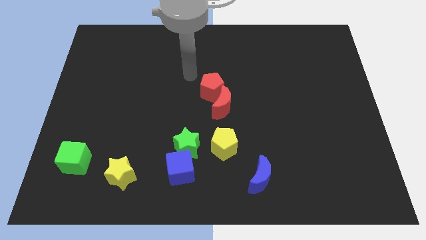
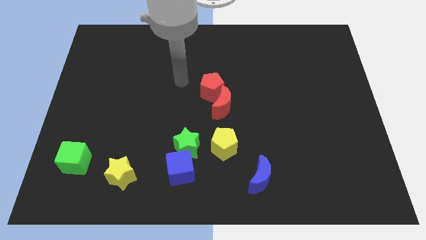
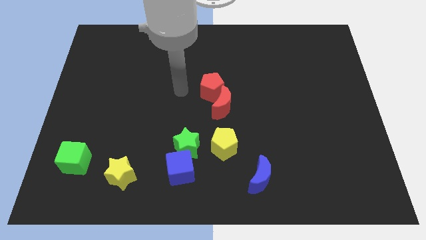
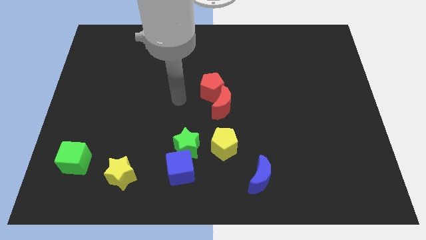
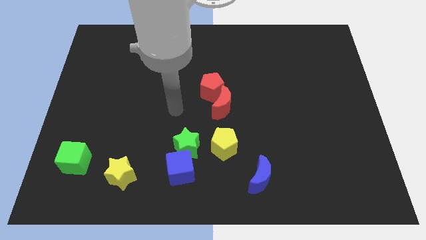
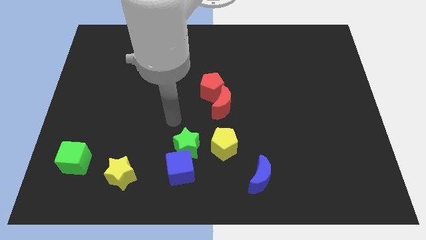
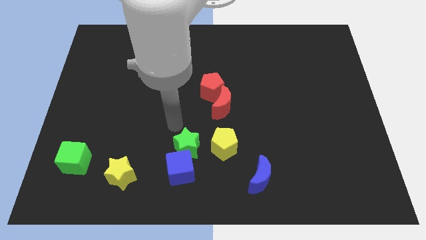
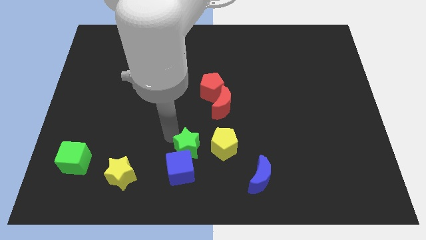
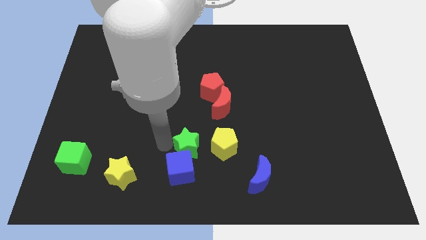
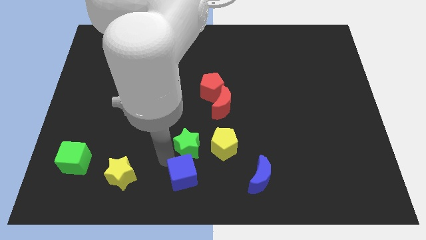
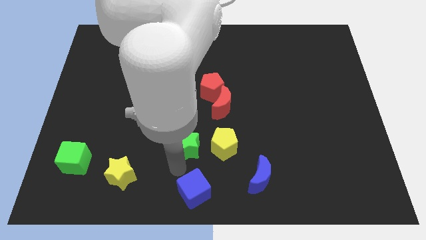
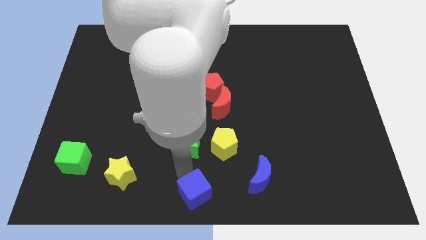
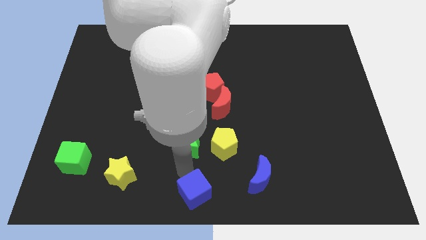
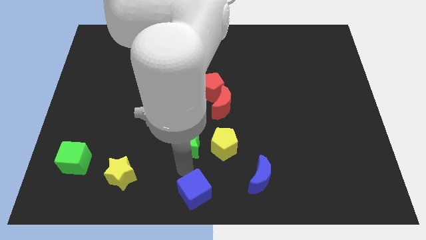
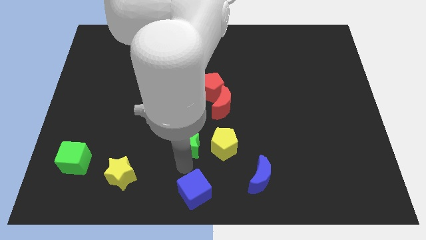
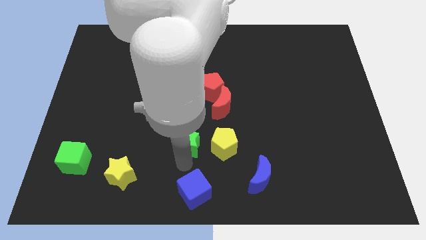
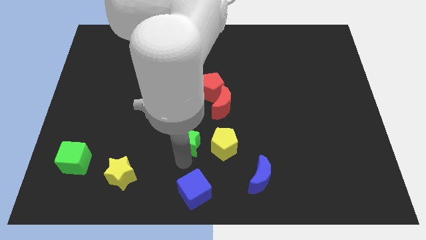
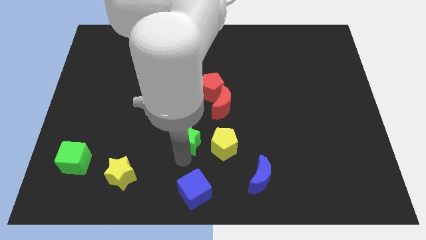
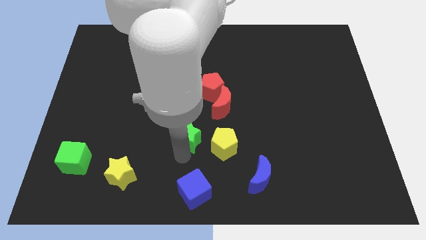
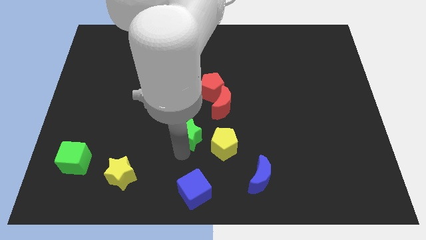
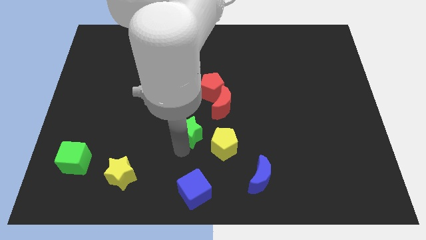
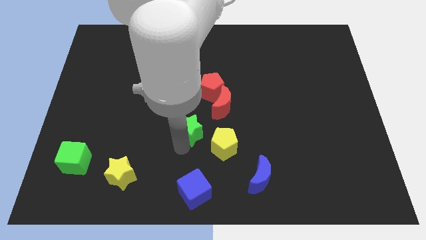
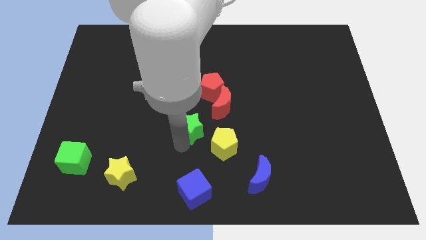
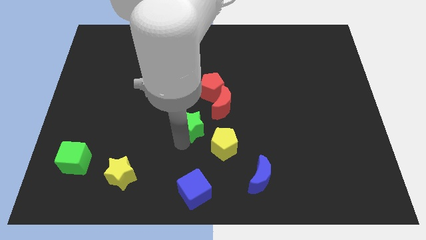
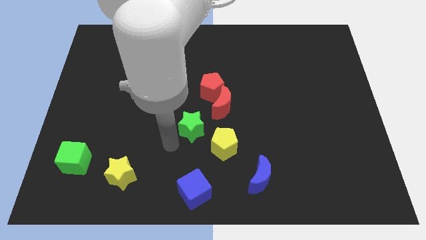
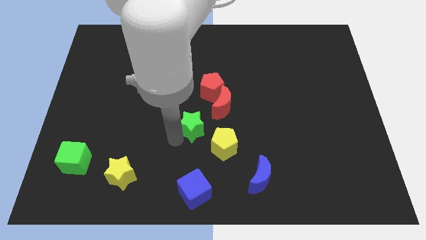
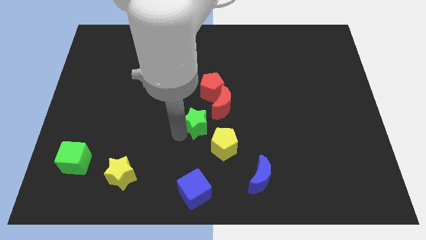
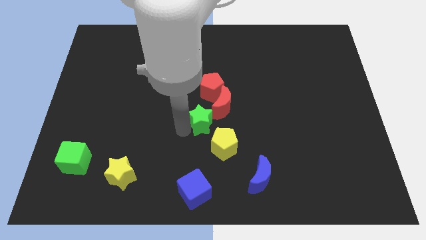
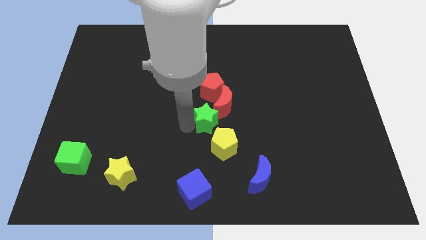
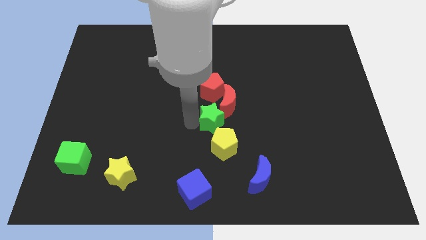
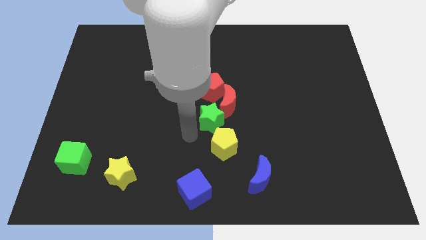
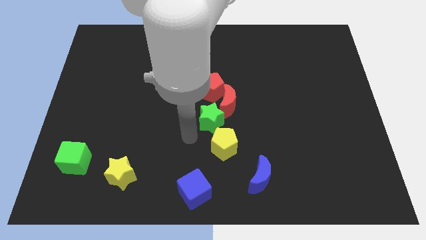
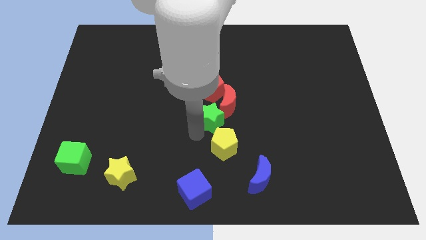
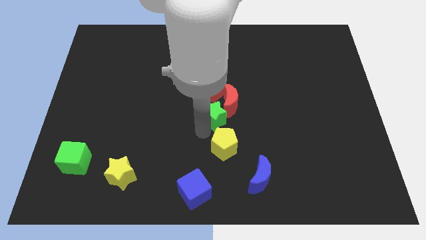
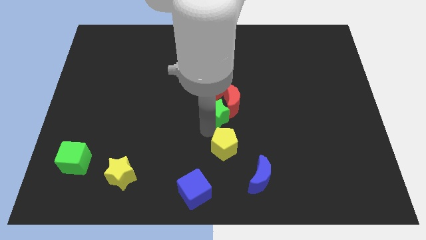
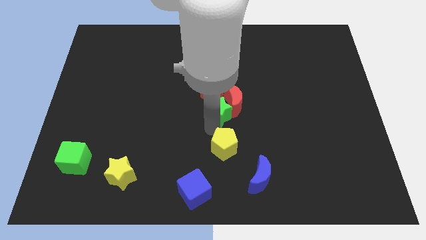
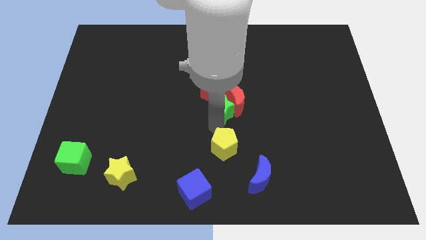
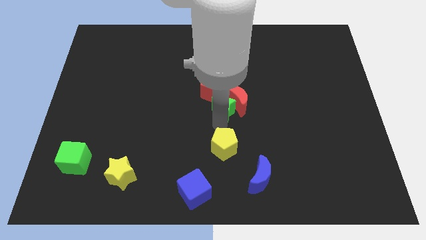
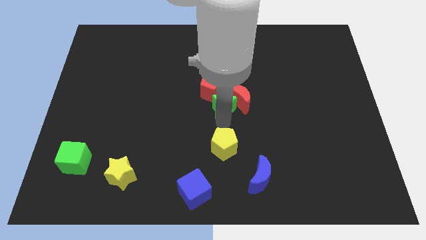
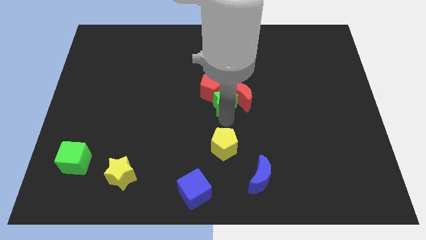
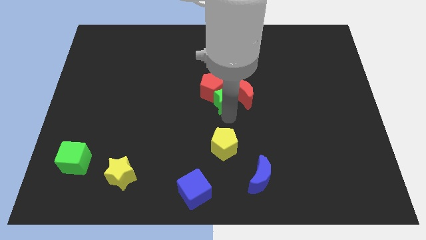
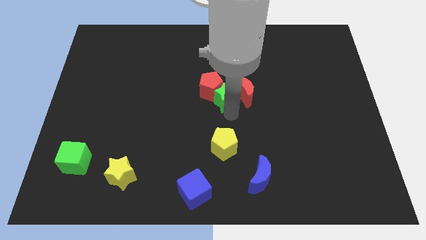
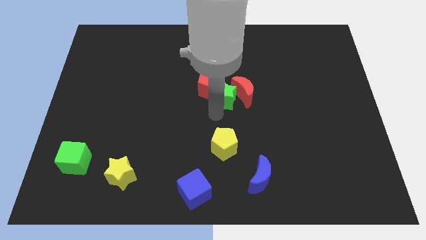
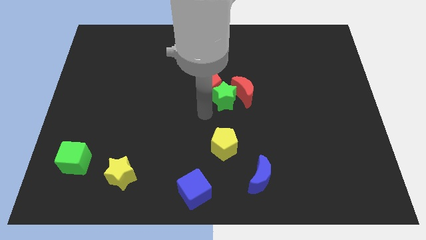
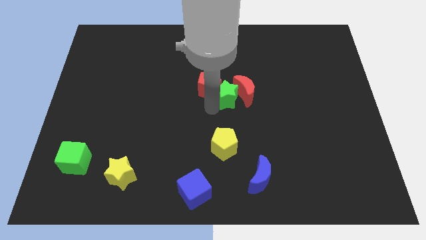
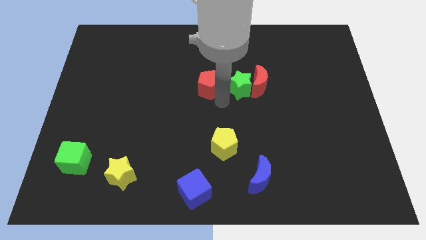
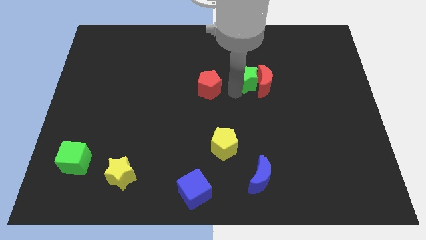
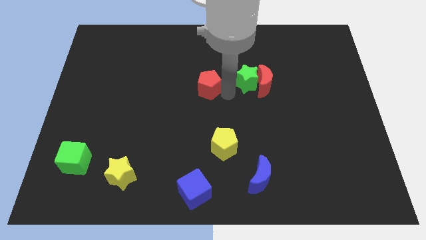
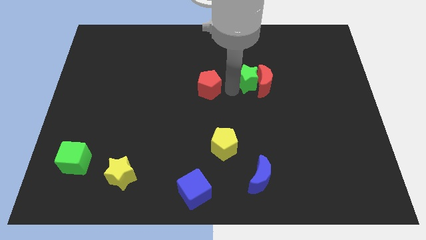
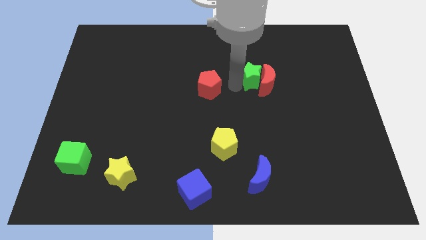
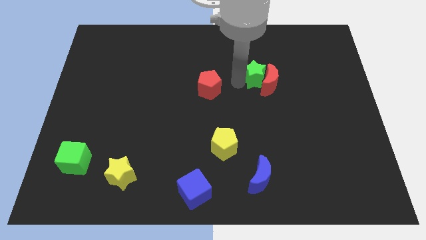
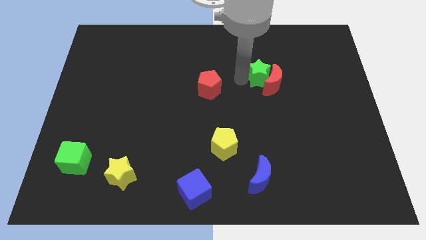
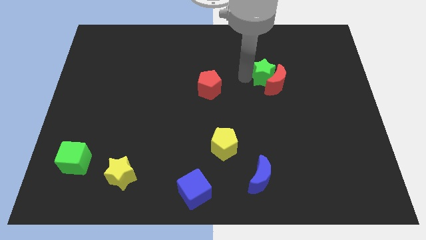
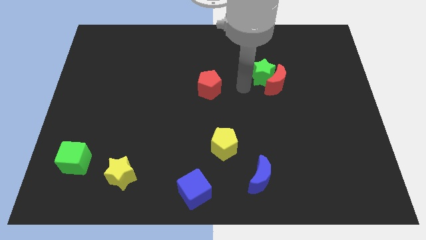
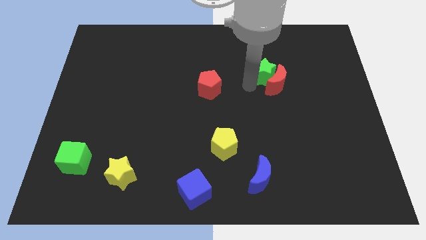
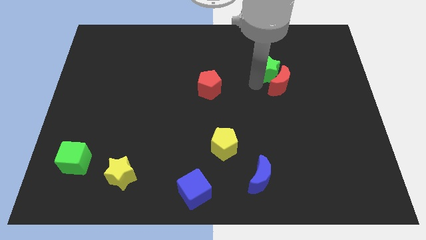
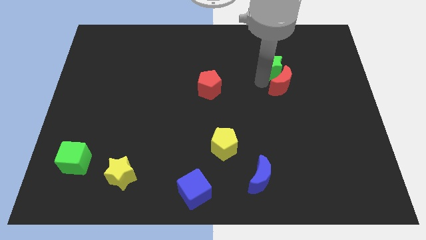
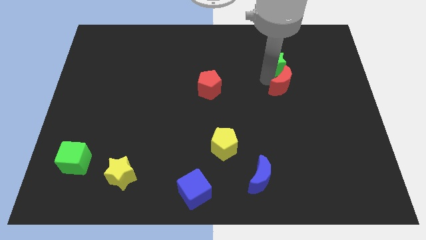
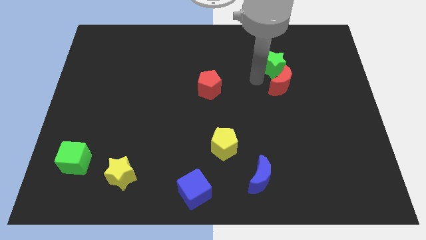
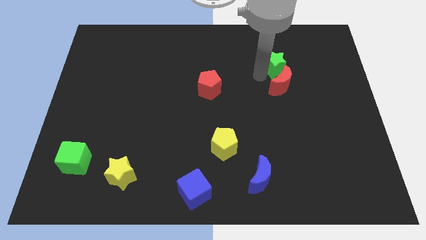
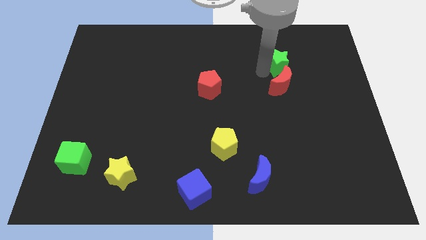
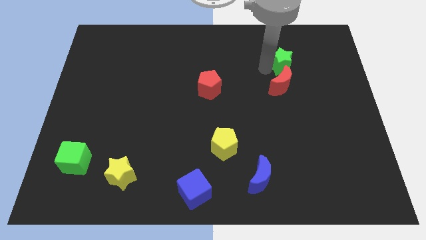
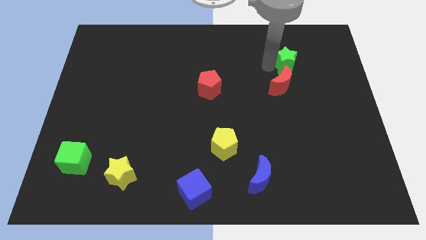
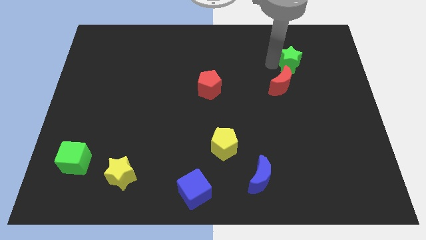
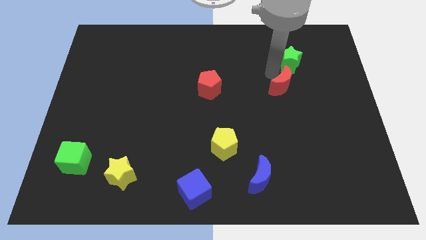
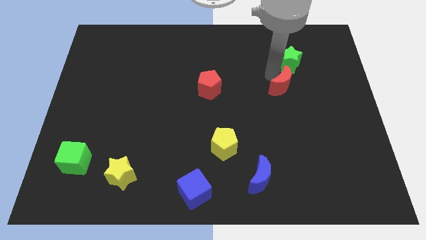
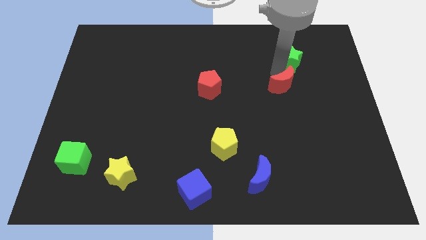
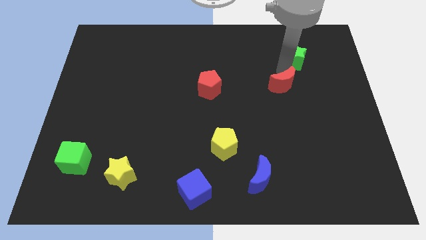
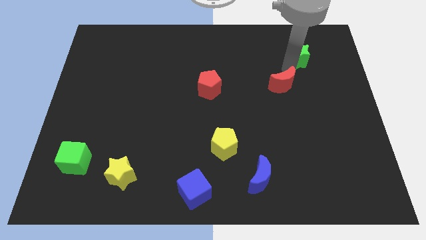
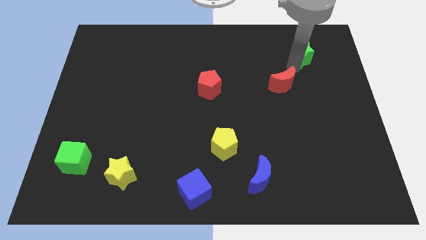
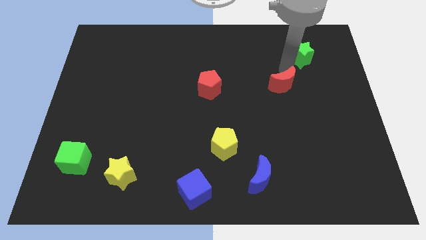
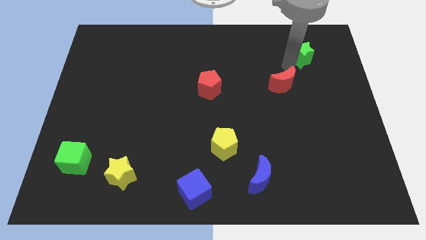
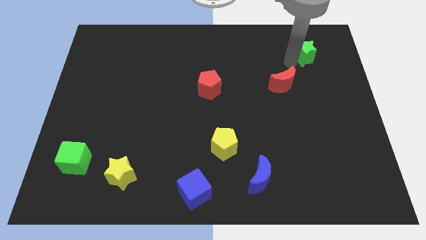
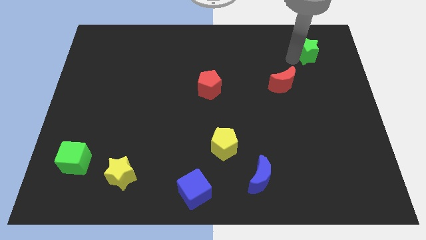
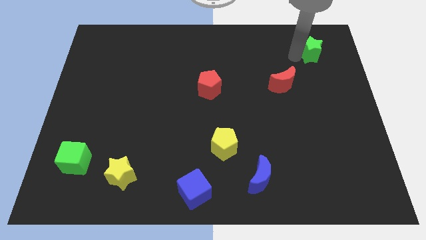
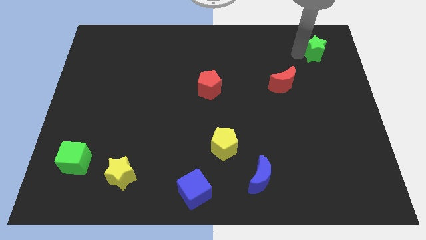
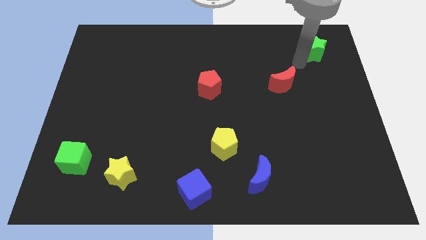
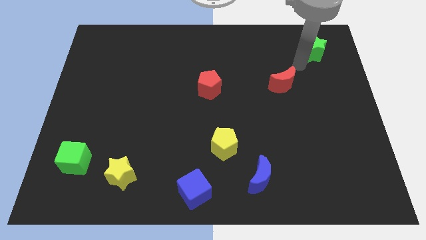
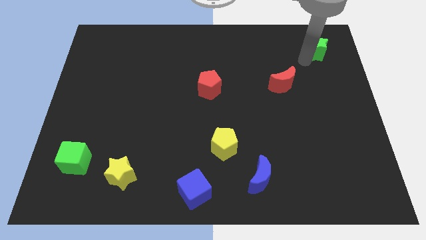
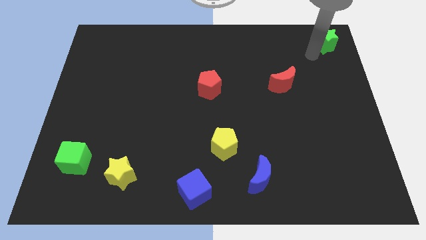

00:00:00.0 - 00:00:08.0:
move the green star to the top right corner
